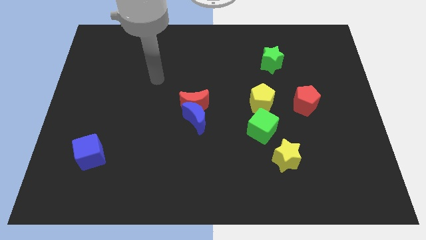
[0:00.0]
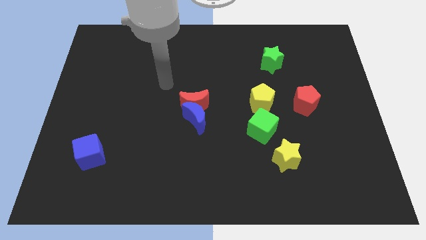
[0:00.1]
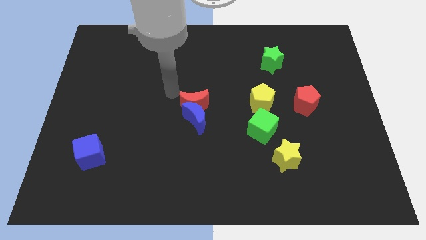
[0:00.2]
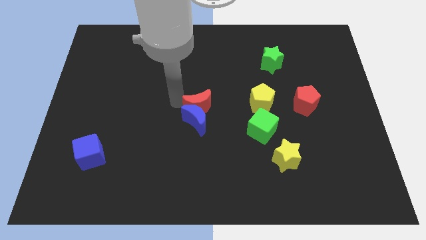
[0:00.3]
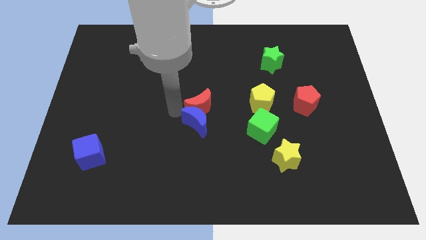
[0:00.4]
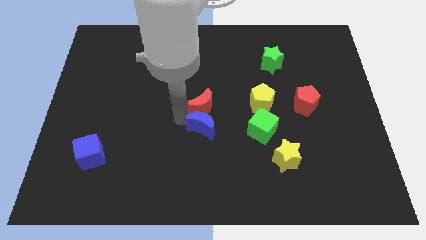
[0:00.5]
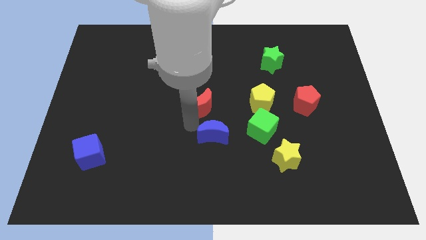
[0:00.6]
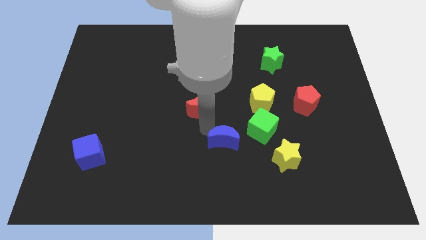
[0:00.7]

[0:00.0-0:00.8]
move the red moon away from the blue moon

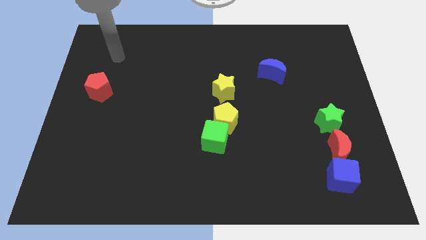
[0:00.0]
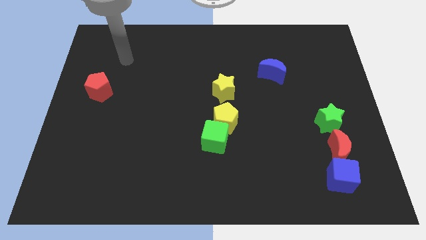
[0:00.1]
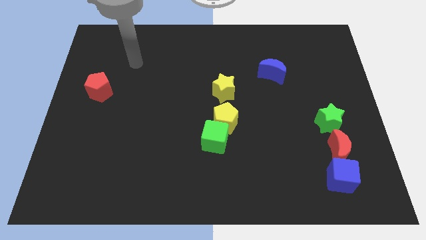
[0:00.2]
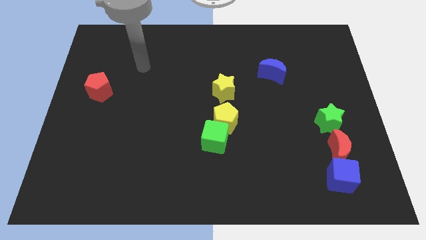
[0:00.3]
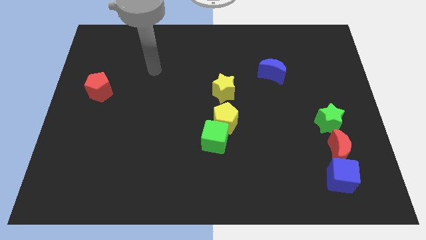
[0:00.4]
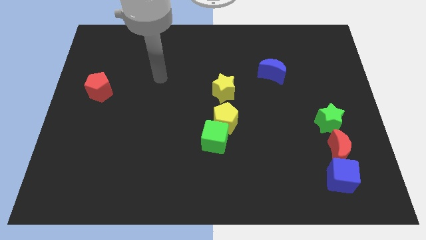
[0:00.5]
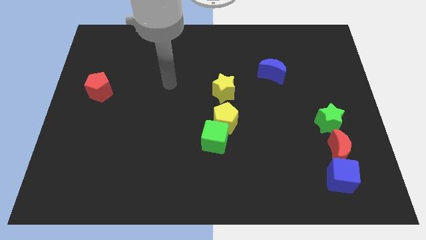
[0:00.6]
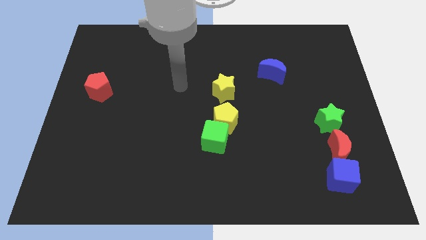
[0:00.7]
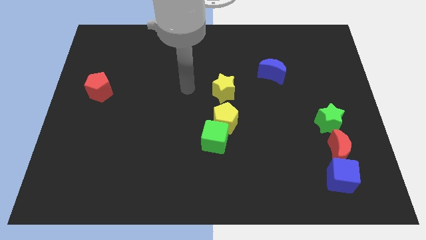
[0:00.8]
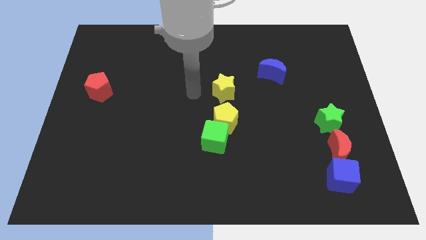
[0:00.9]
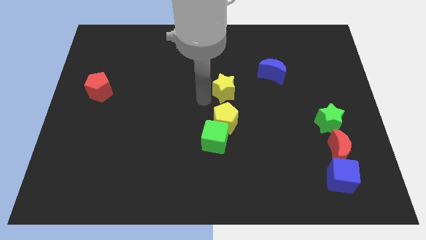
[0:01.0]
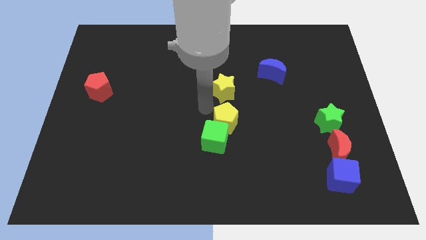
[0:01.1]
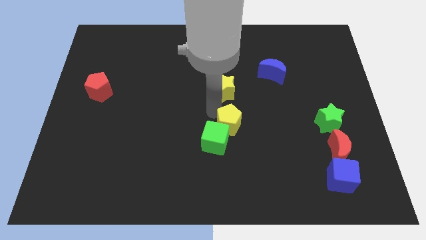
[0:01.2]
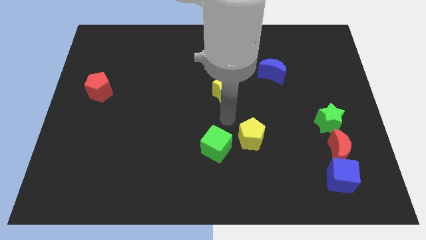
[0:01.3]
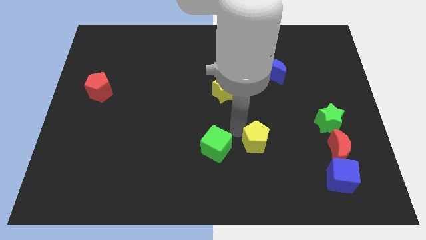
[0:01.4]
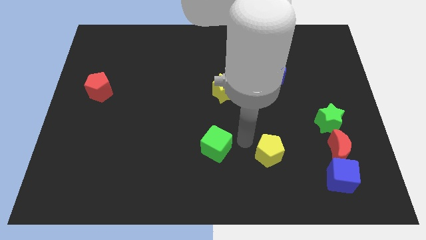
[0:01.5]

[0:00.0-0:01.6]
pull the green cube apart from the yellow pentagon

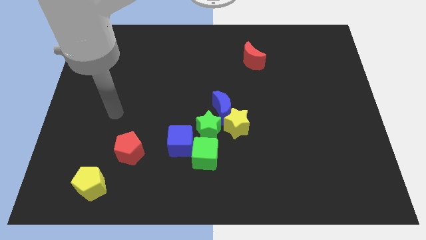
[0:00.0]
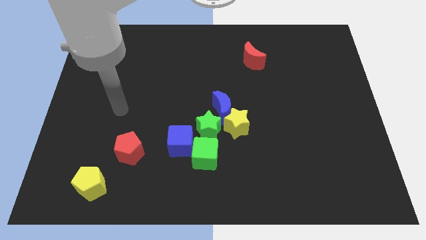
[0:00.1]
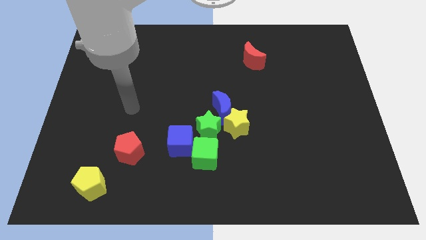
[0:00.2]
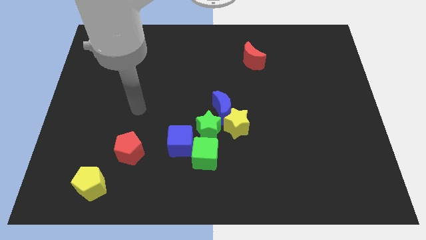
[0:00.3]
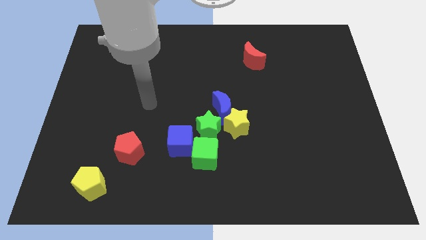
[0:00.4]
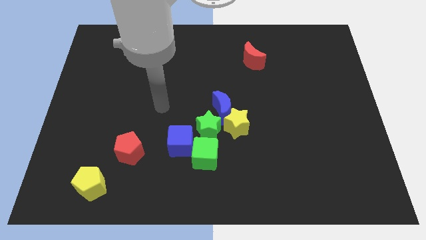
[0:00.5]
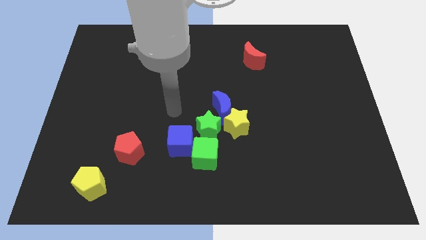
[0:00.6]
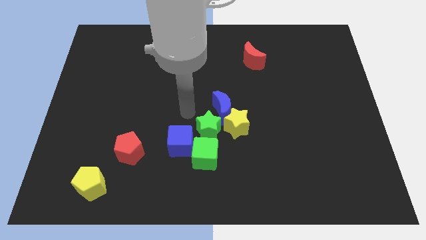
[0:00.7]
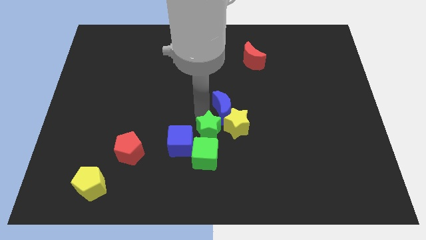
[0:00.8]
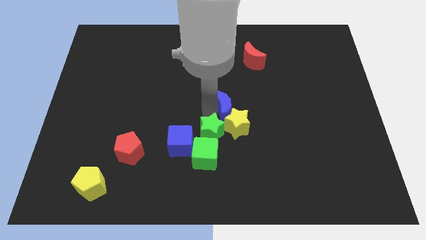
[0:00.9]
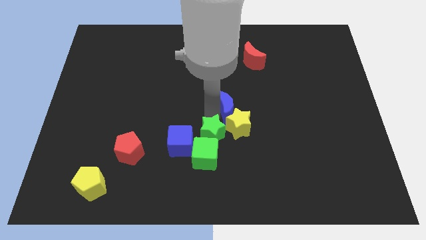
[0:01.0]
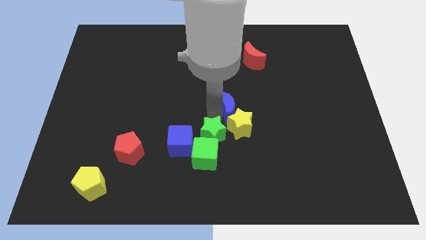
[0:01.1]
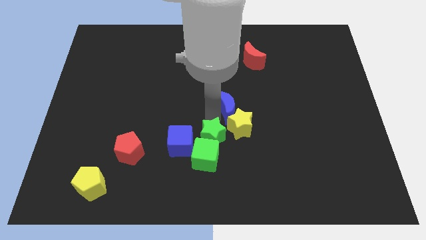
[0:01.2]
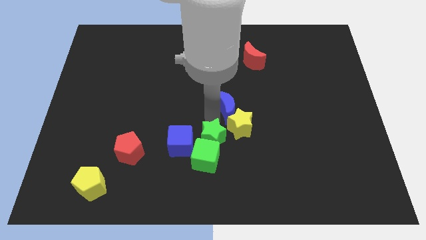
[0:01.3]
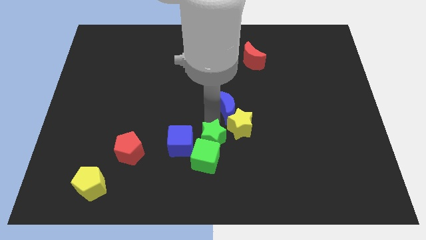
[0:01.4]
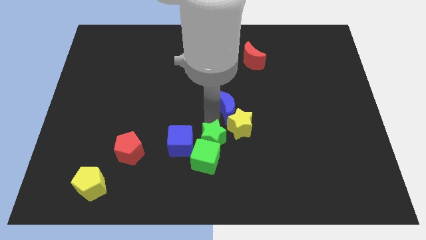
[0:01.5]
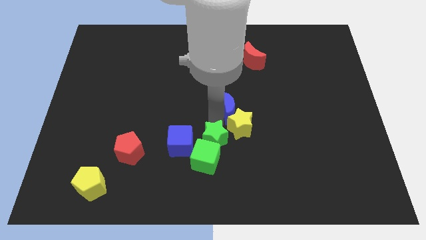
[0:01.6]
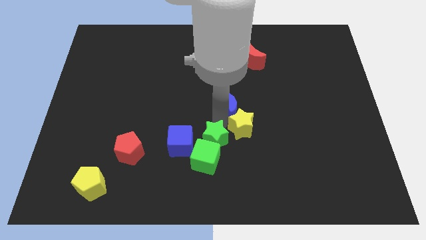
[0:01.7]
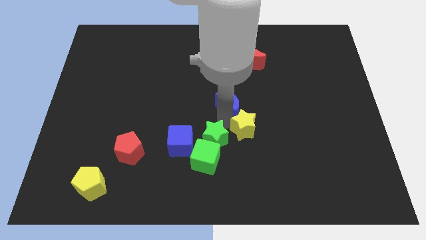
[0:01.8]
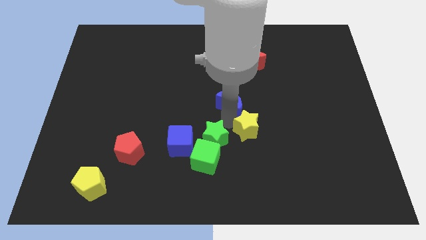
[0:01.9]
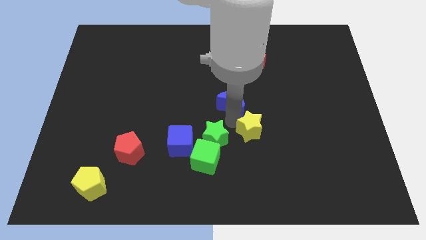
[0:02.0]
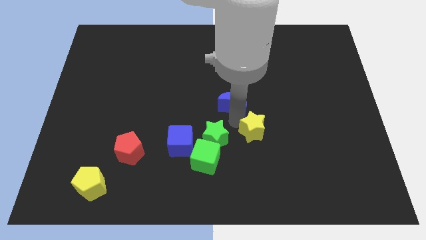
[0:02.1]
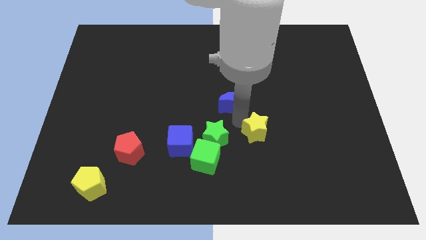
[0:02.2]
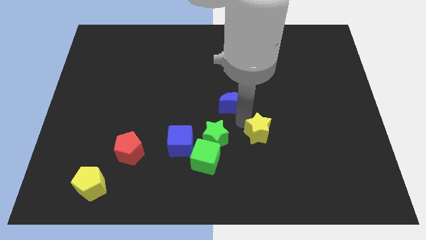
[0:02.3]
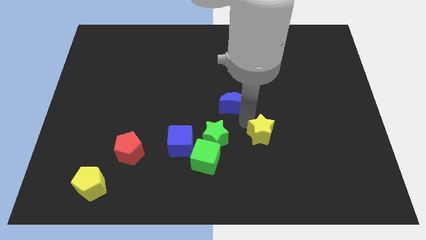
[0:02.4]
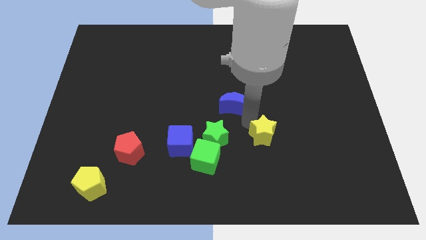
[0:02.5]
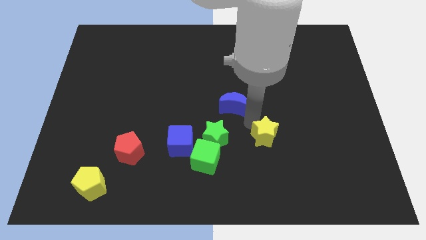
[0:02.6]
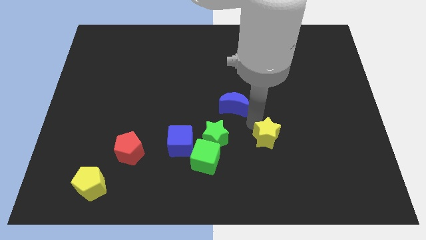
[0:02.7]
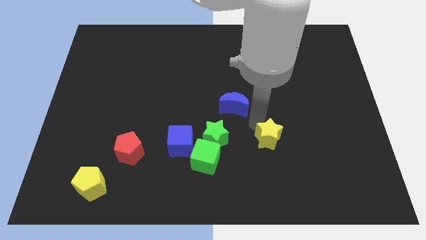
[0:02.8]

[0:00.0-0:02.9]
pull the yellow star apart from the blue moon and green star

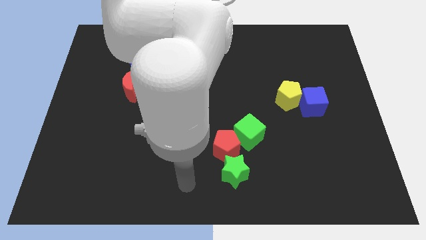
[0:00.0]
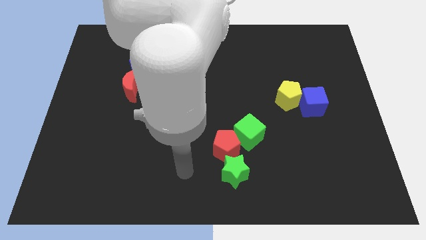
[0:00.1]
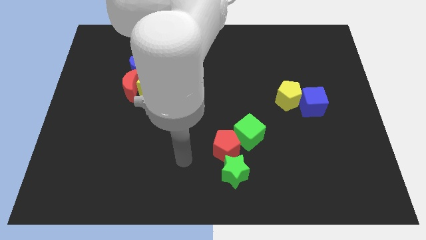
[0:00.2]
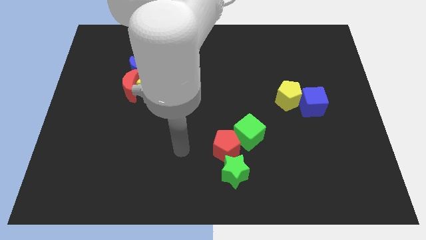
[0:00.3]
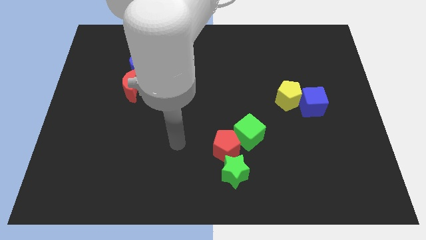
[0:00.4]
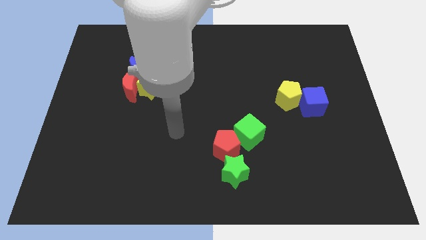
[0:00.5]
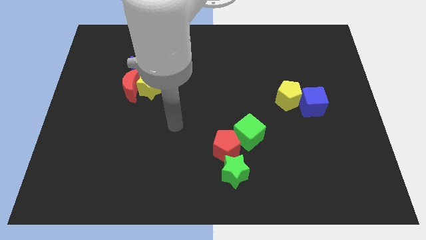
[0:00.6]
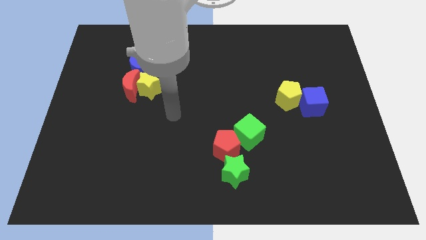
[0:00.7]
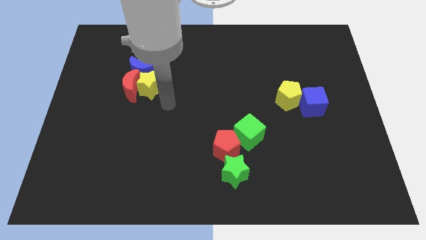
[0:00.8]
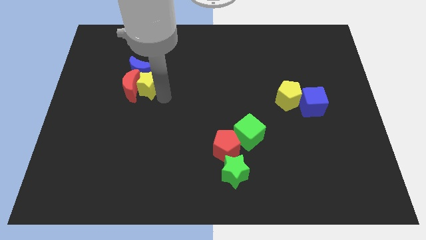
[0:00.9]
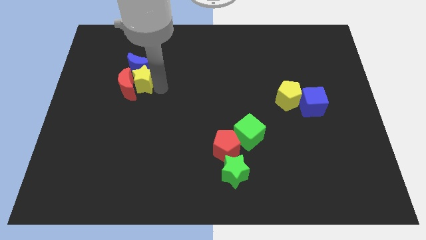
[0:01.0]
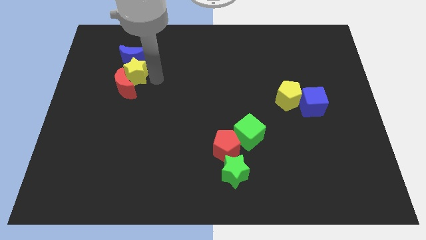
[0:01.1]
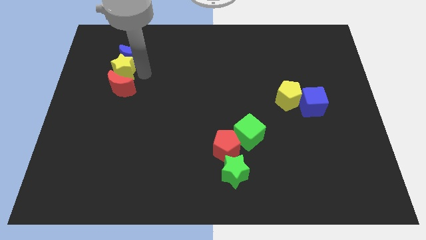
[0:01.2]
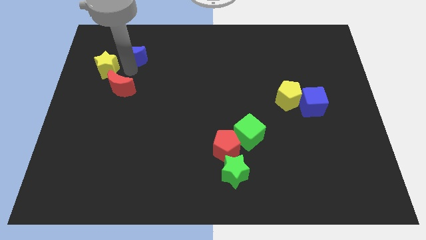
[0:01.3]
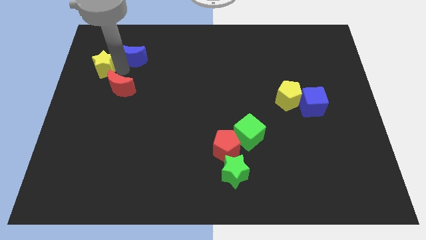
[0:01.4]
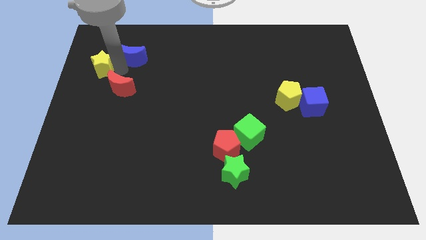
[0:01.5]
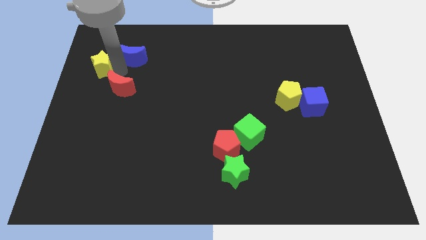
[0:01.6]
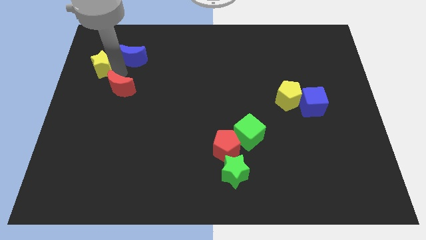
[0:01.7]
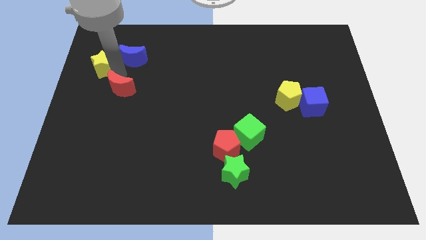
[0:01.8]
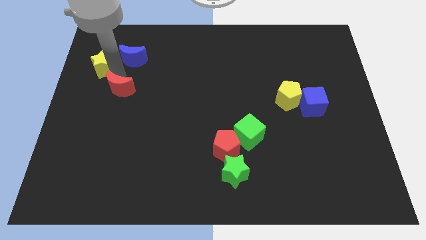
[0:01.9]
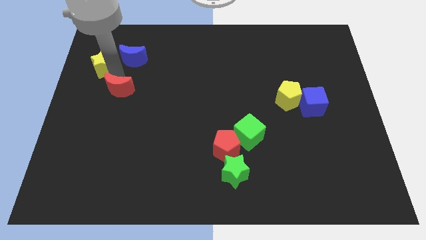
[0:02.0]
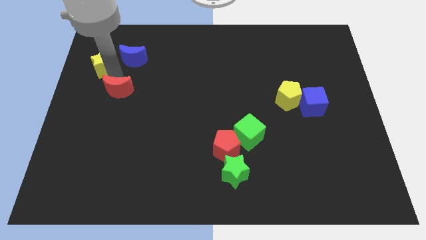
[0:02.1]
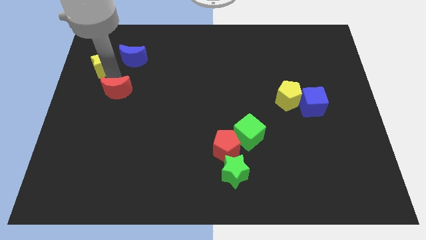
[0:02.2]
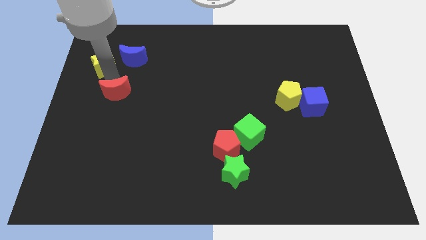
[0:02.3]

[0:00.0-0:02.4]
move the red moon away from the yellow star and blue moon

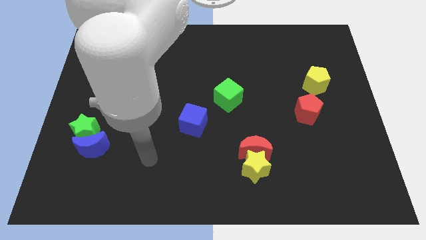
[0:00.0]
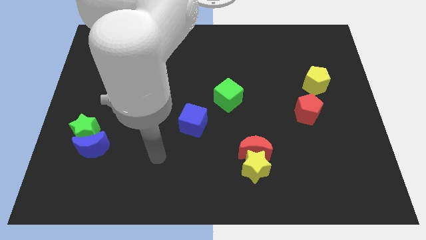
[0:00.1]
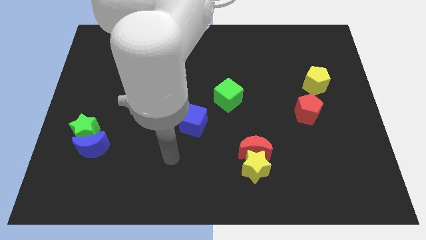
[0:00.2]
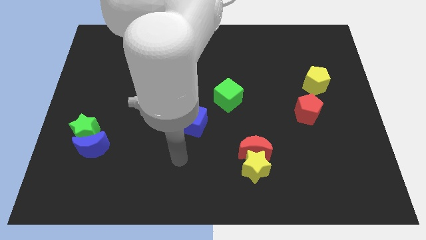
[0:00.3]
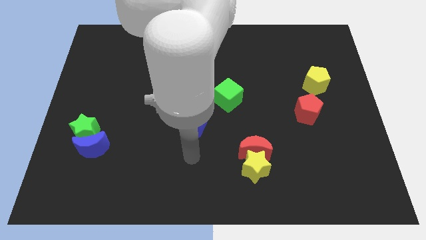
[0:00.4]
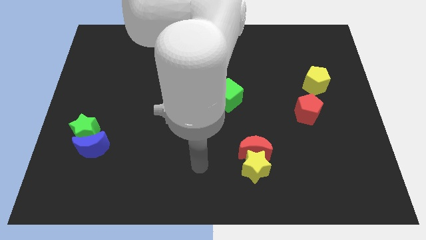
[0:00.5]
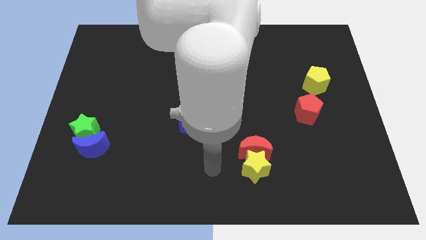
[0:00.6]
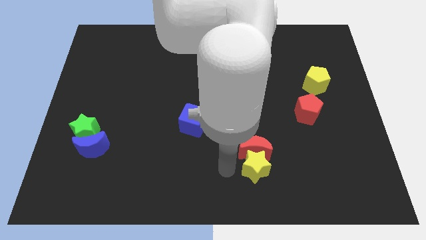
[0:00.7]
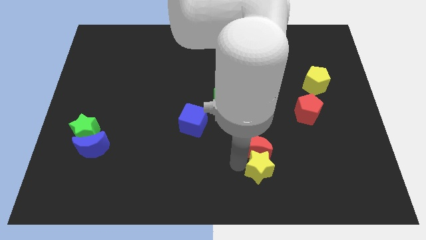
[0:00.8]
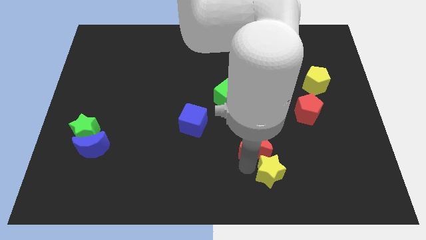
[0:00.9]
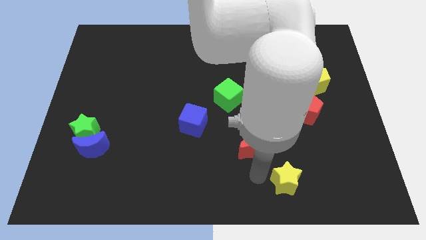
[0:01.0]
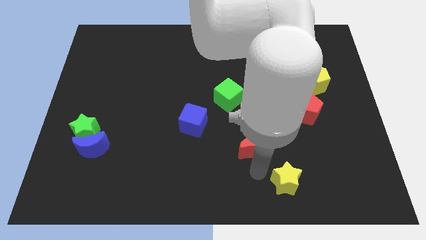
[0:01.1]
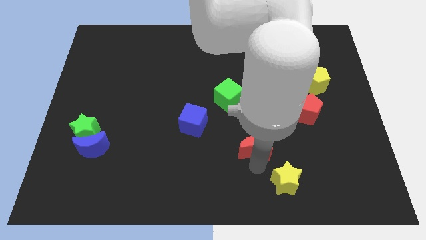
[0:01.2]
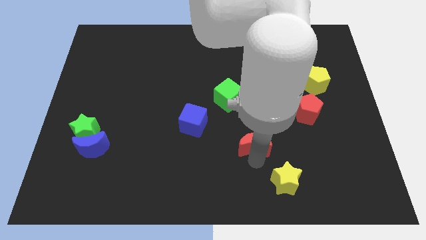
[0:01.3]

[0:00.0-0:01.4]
move the red moon away from the yellow star

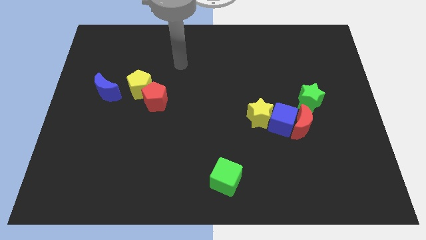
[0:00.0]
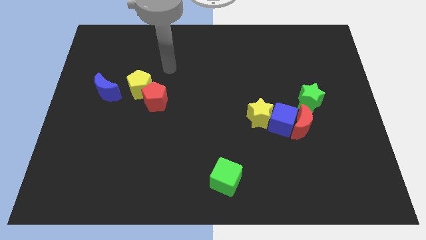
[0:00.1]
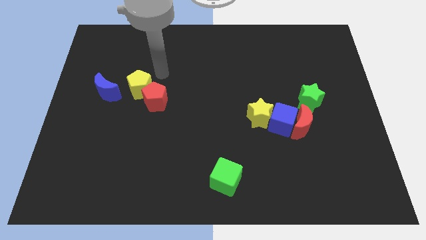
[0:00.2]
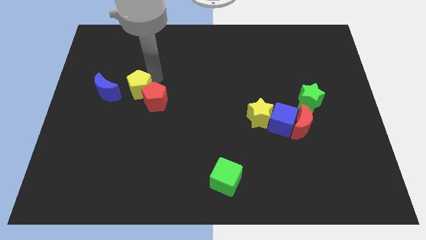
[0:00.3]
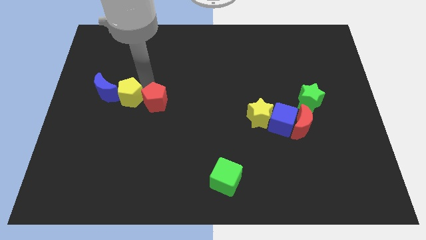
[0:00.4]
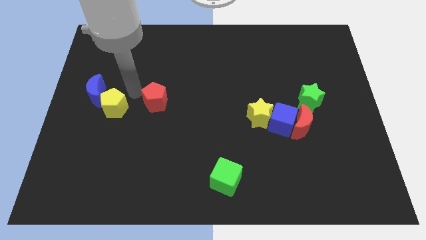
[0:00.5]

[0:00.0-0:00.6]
separate the red pentagon from the yellow pentagon
